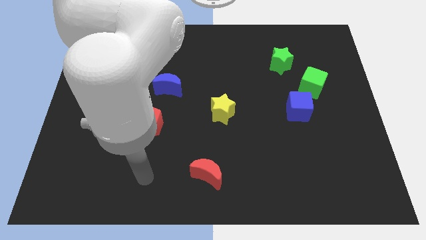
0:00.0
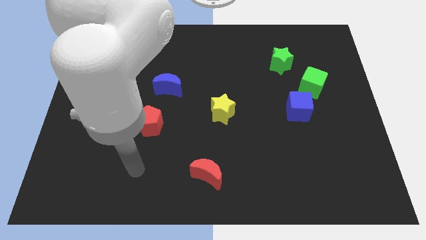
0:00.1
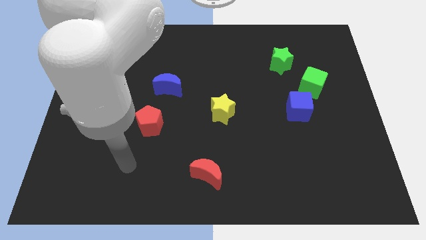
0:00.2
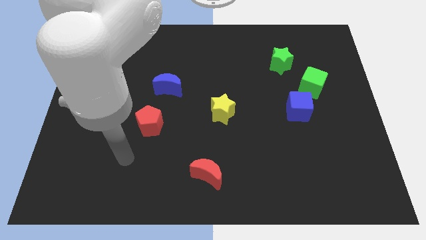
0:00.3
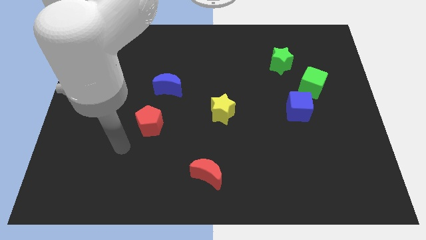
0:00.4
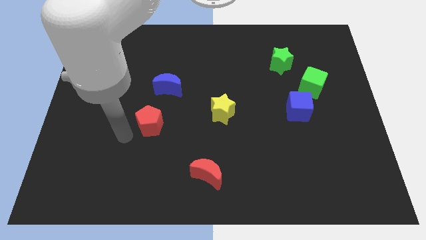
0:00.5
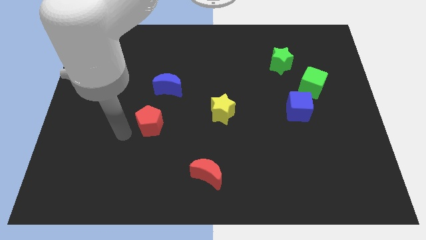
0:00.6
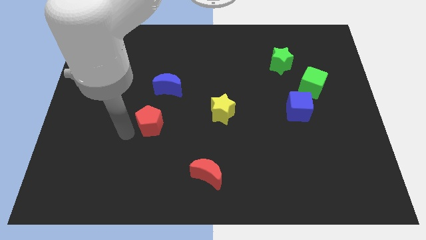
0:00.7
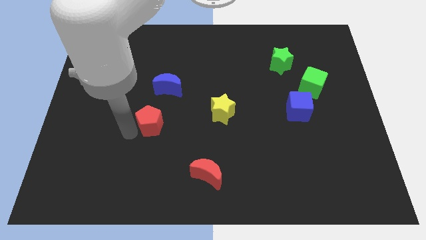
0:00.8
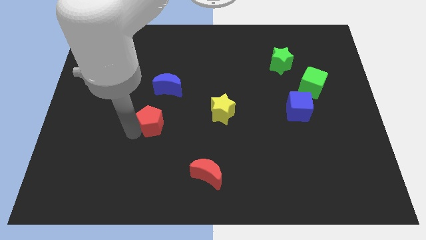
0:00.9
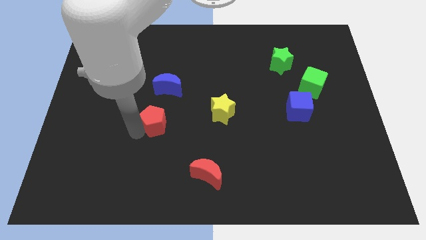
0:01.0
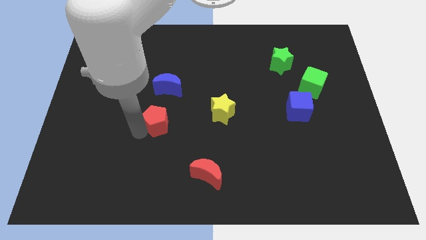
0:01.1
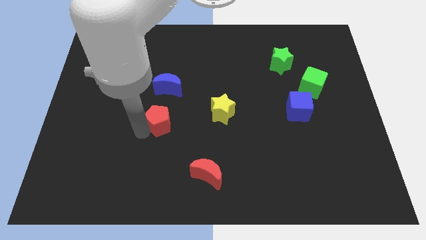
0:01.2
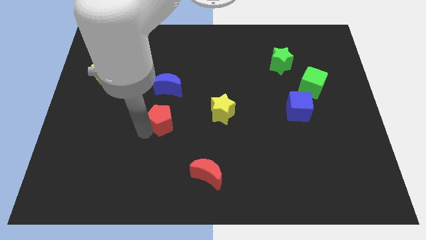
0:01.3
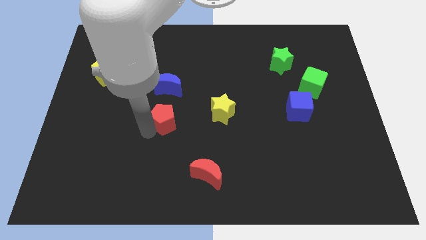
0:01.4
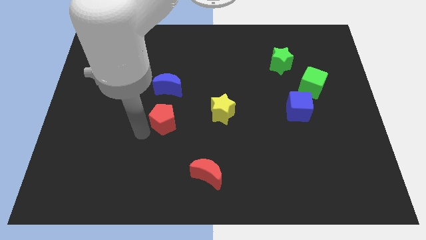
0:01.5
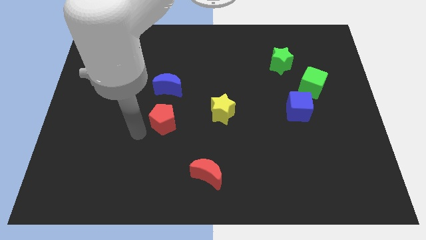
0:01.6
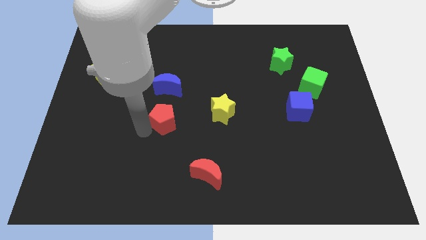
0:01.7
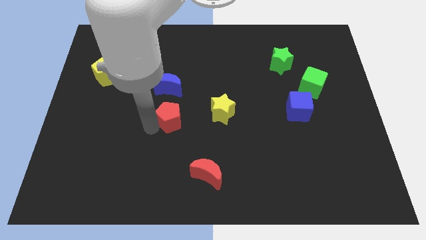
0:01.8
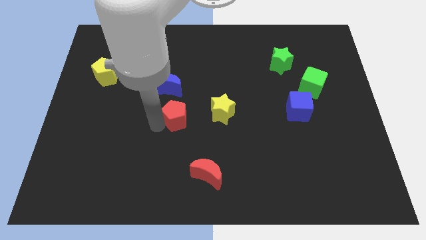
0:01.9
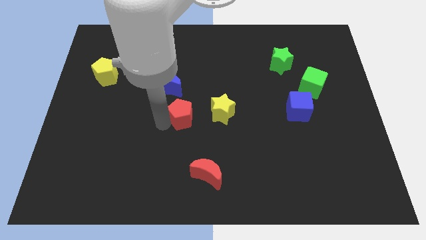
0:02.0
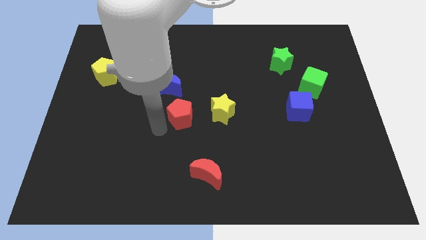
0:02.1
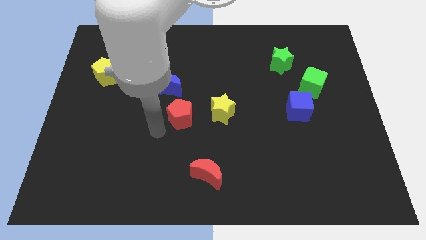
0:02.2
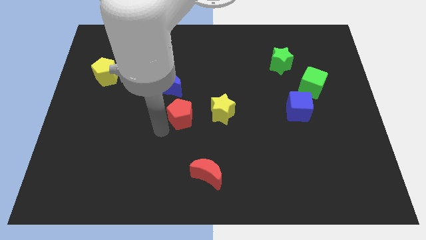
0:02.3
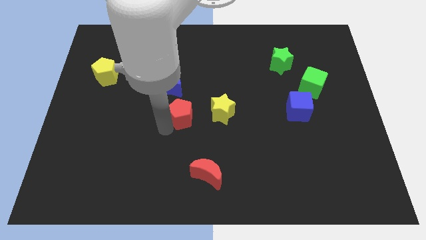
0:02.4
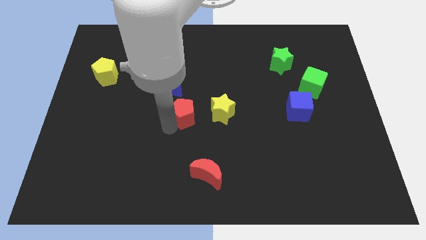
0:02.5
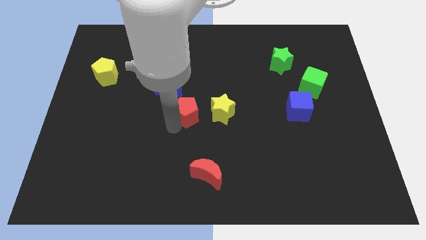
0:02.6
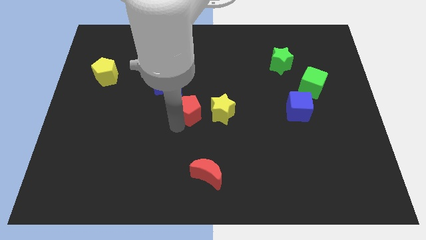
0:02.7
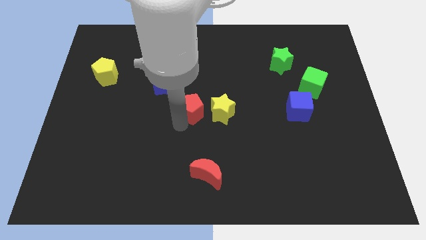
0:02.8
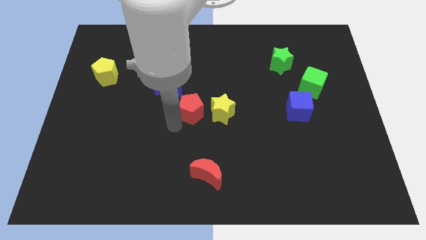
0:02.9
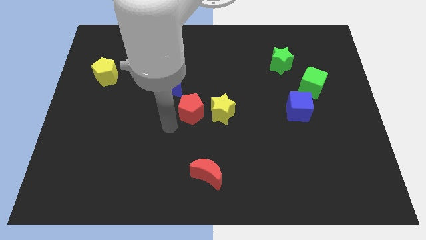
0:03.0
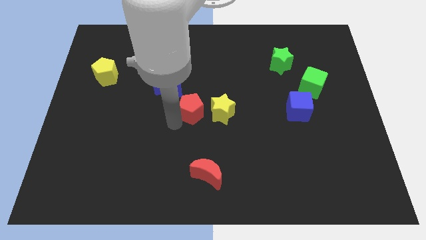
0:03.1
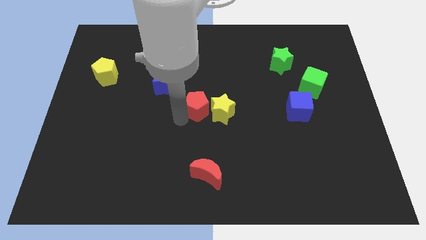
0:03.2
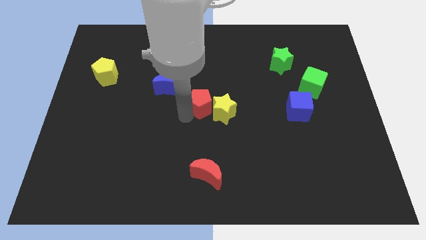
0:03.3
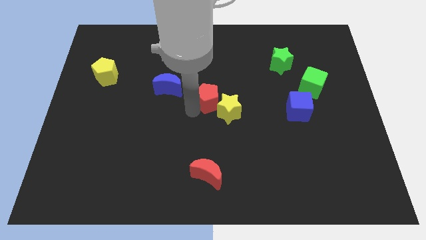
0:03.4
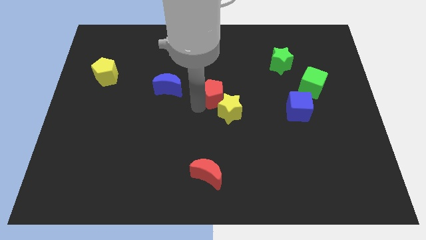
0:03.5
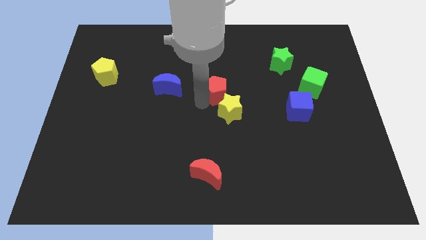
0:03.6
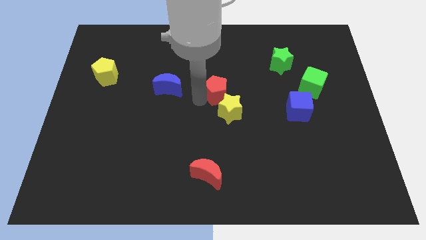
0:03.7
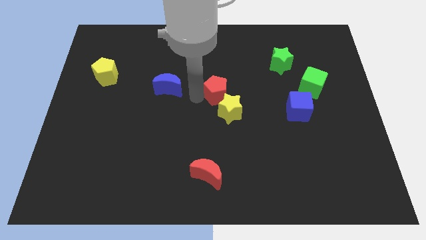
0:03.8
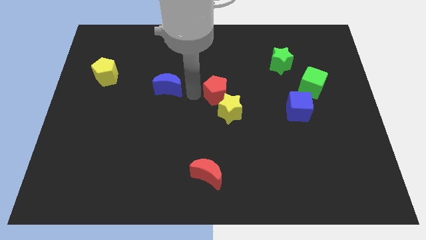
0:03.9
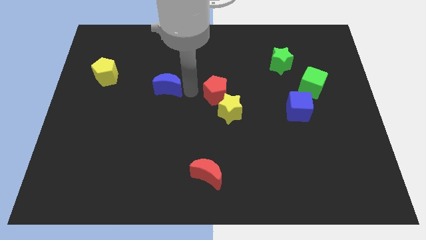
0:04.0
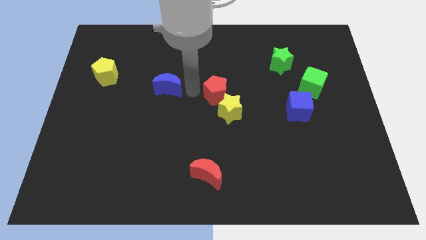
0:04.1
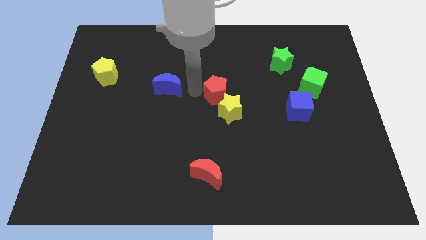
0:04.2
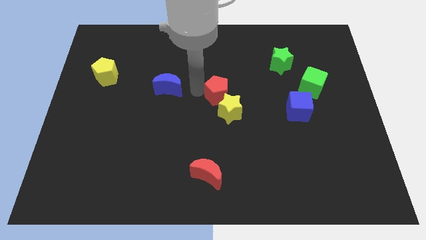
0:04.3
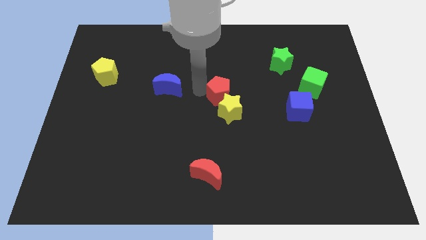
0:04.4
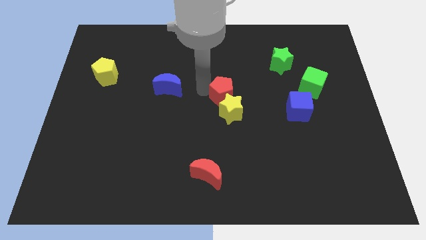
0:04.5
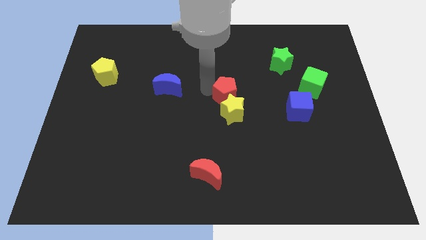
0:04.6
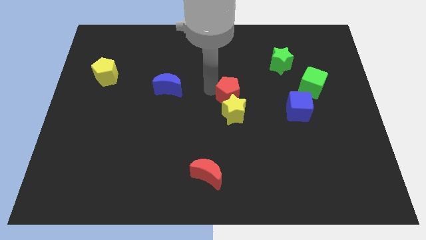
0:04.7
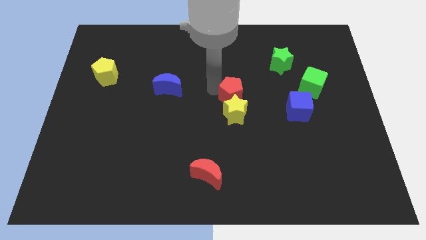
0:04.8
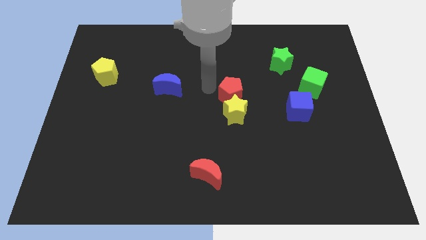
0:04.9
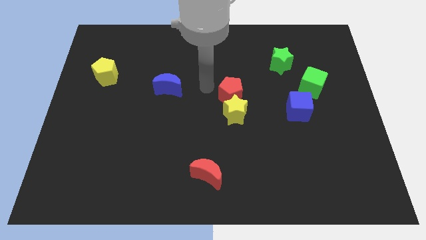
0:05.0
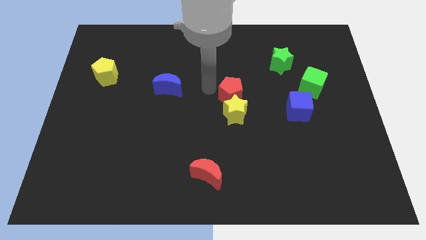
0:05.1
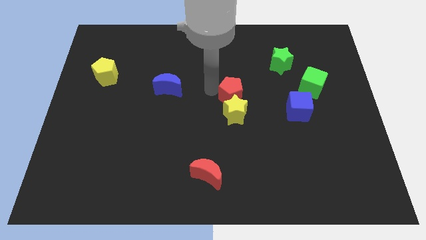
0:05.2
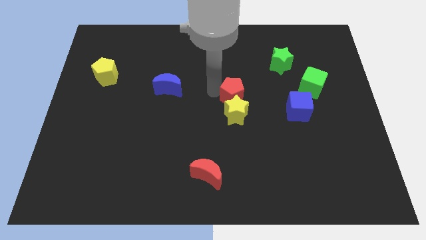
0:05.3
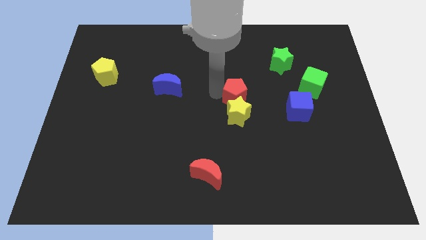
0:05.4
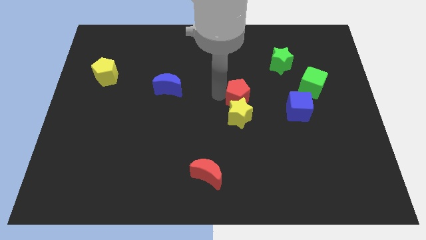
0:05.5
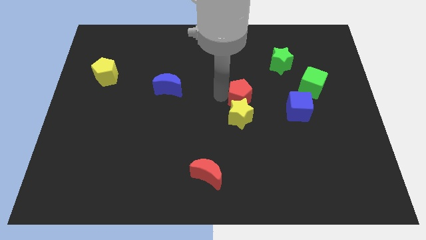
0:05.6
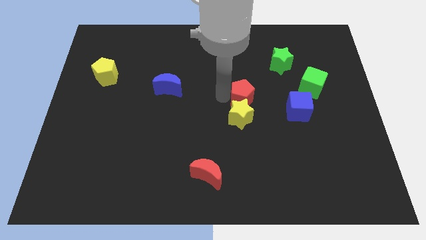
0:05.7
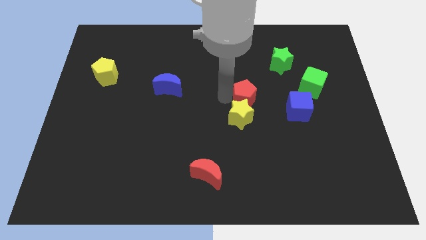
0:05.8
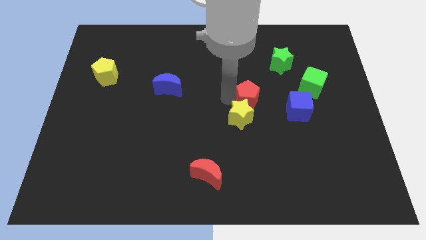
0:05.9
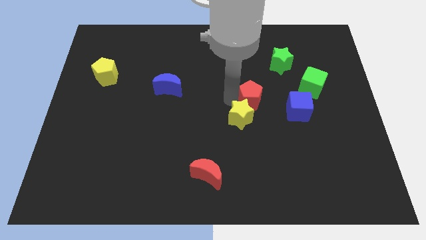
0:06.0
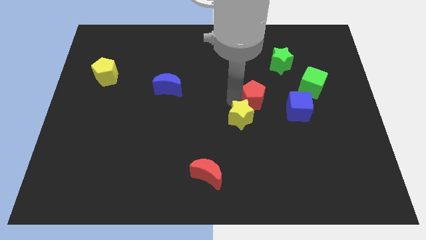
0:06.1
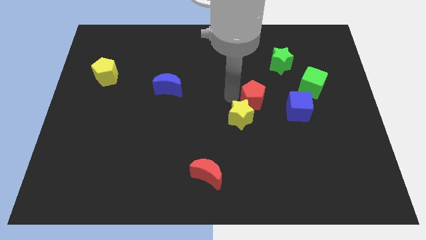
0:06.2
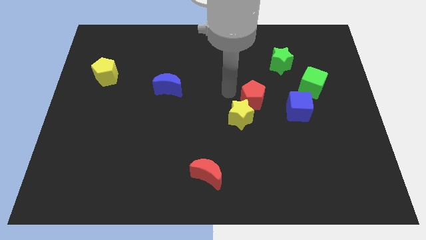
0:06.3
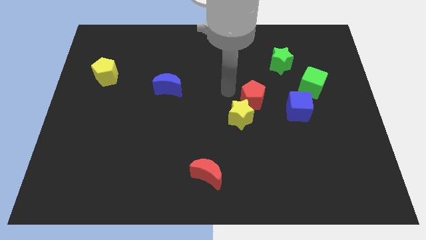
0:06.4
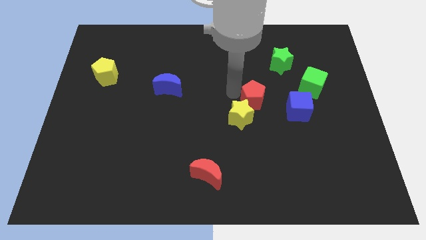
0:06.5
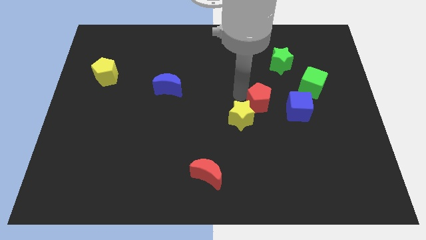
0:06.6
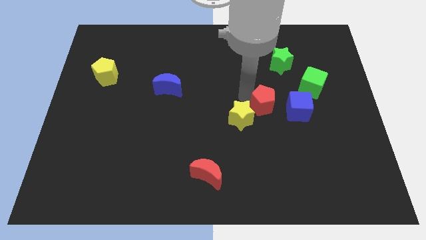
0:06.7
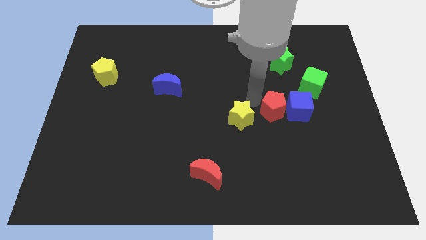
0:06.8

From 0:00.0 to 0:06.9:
put the red pentagon to the blue cube

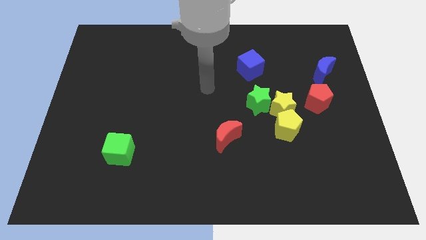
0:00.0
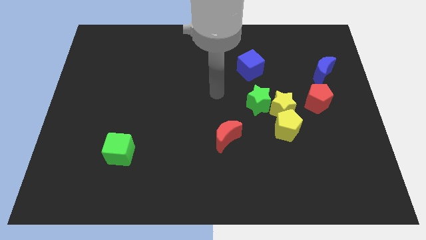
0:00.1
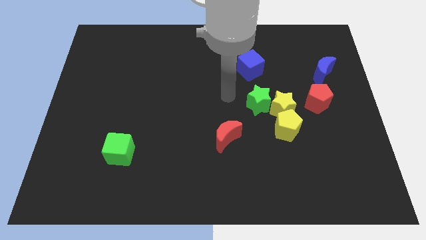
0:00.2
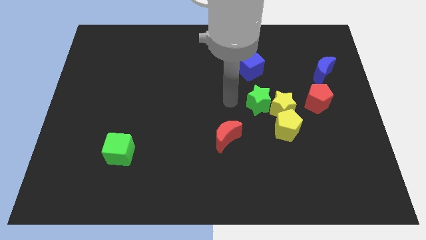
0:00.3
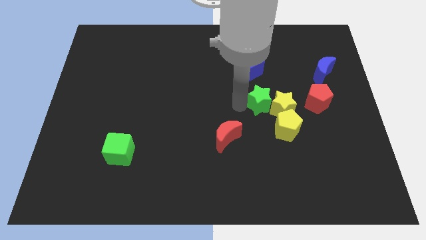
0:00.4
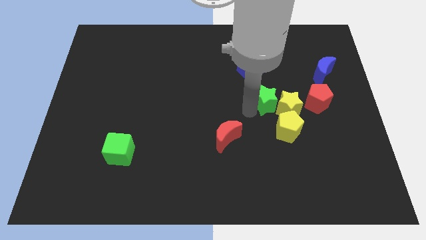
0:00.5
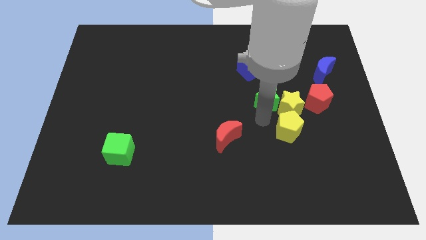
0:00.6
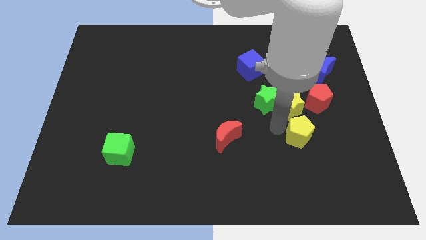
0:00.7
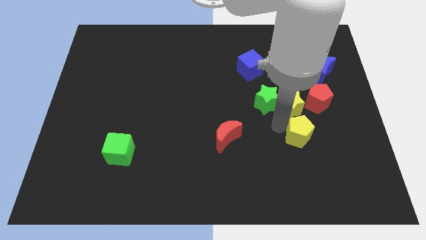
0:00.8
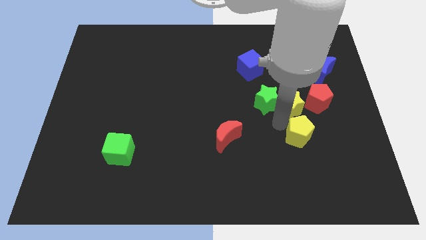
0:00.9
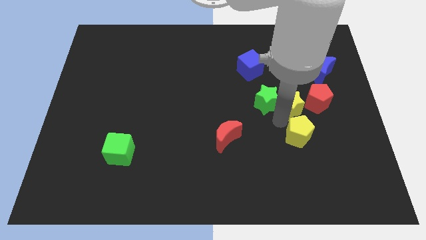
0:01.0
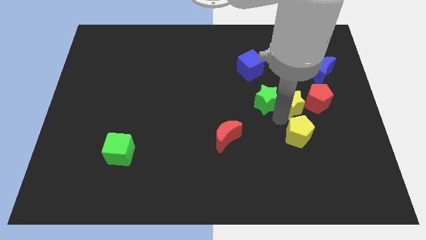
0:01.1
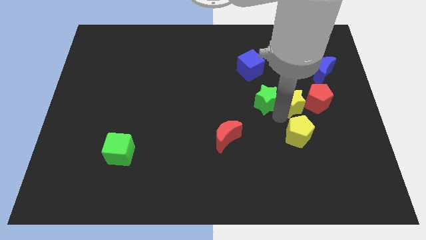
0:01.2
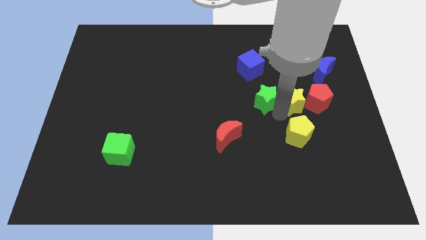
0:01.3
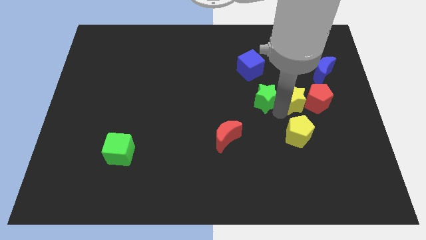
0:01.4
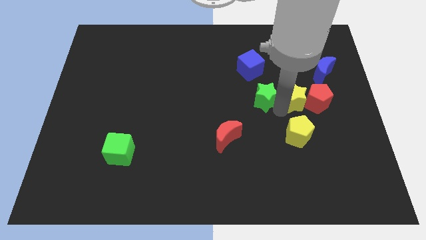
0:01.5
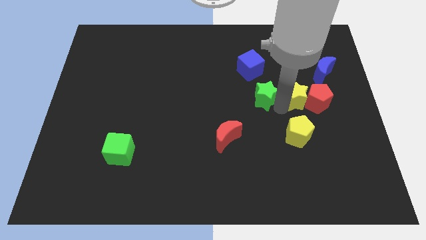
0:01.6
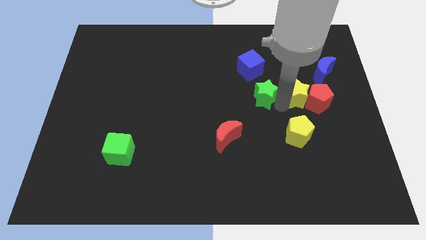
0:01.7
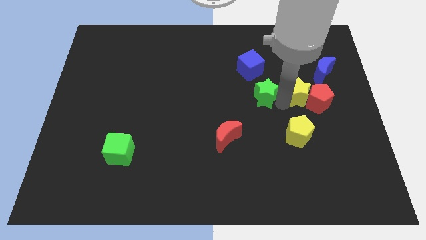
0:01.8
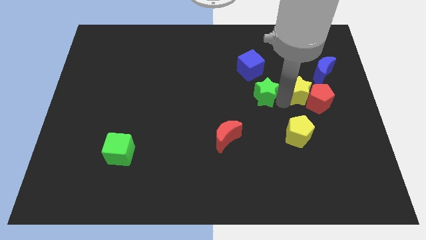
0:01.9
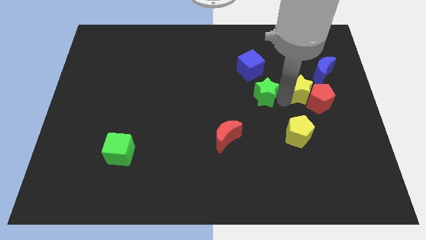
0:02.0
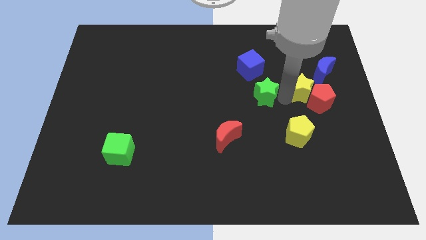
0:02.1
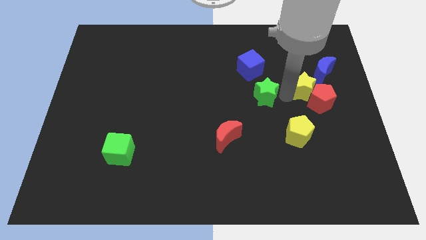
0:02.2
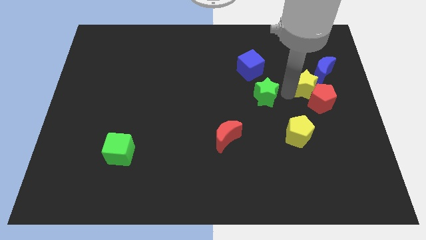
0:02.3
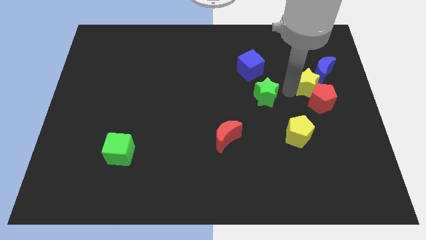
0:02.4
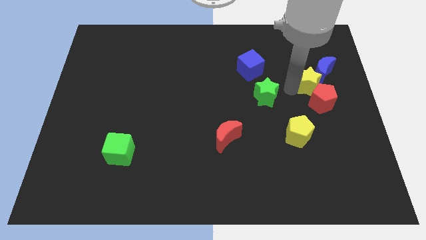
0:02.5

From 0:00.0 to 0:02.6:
slide the yellow star to the blue moon
